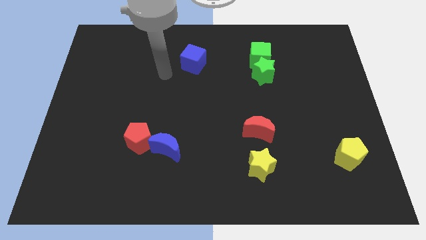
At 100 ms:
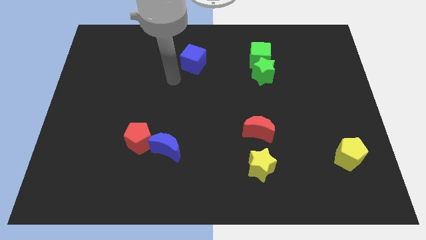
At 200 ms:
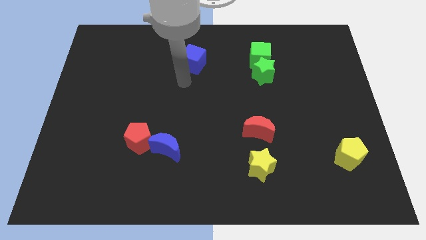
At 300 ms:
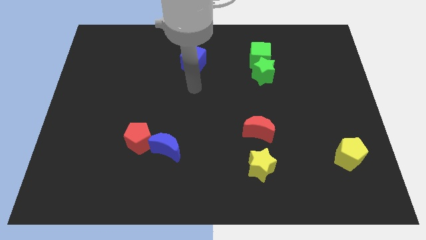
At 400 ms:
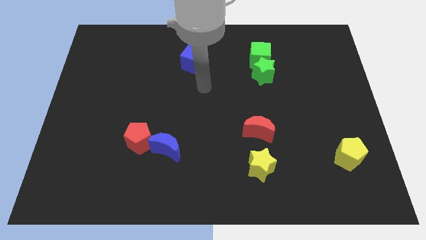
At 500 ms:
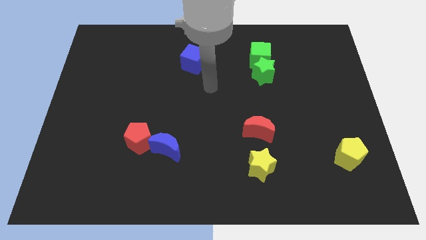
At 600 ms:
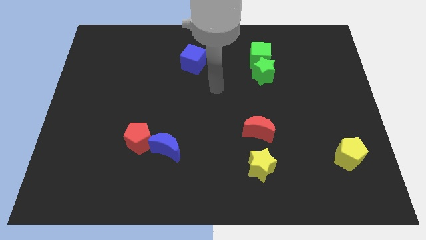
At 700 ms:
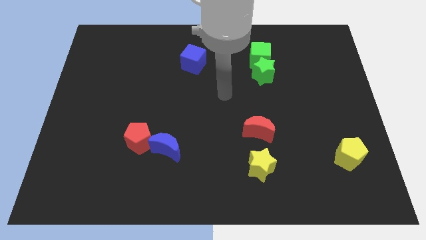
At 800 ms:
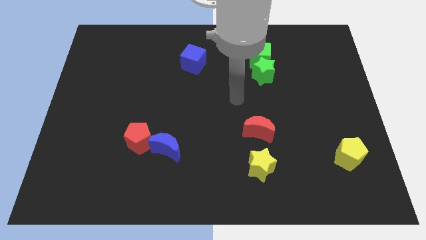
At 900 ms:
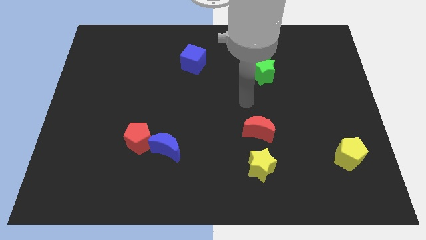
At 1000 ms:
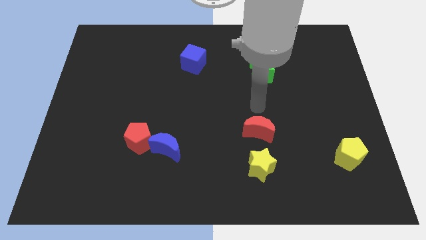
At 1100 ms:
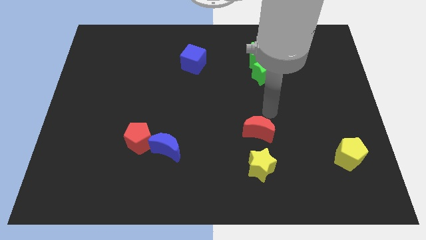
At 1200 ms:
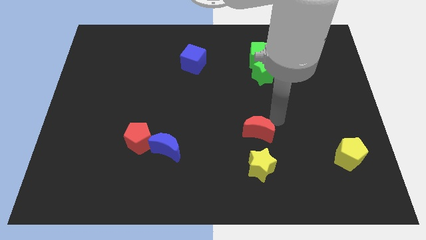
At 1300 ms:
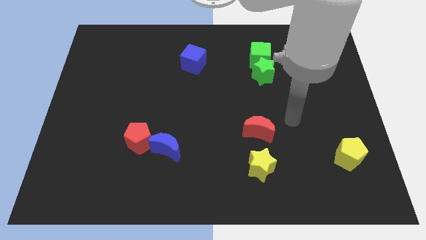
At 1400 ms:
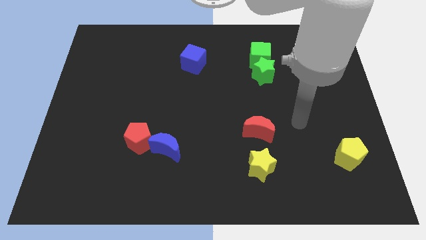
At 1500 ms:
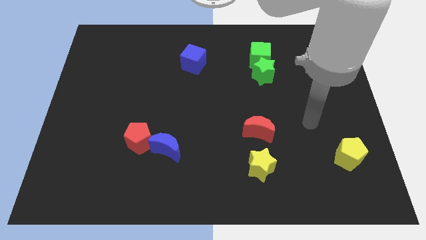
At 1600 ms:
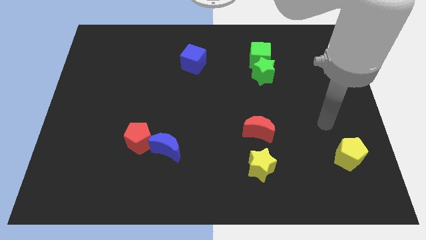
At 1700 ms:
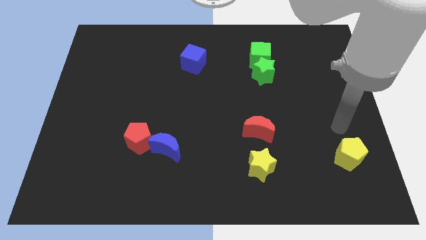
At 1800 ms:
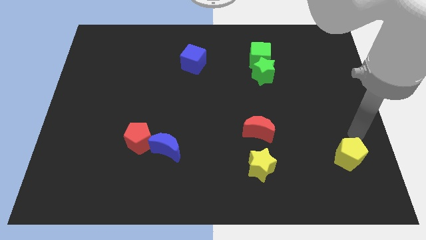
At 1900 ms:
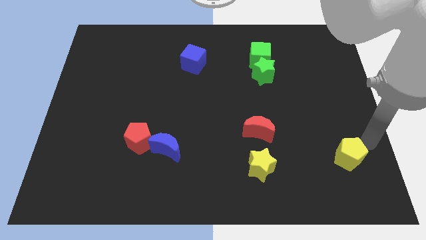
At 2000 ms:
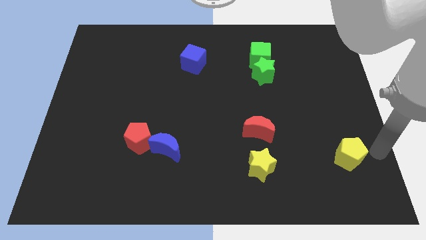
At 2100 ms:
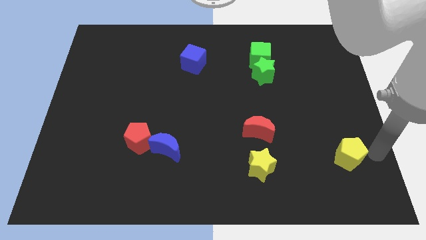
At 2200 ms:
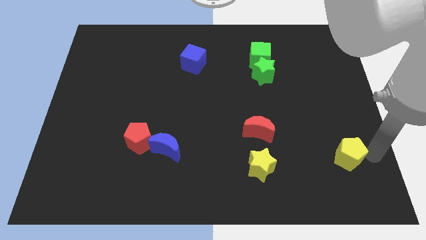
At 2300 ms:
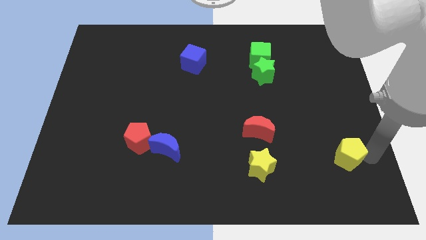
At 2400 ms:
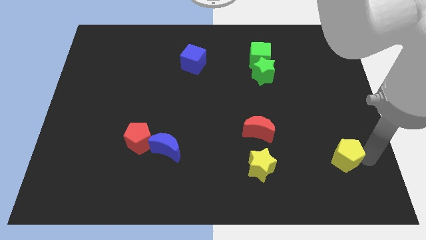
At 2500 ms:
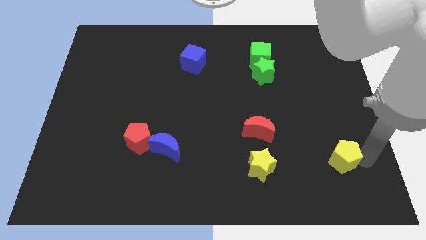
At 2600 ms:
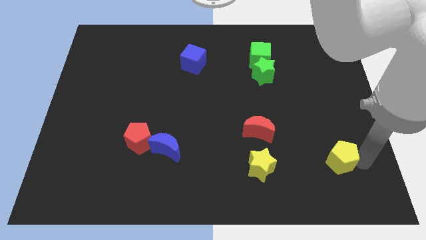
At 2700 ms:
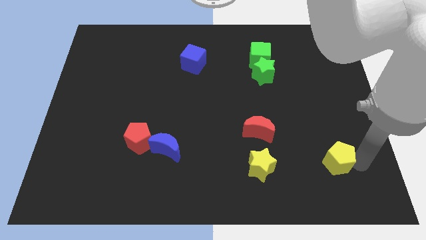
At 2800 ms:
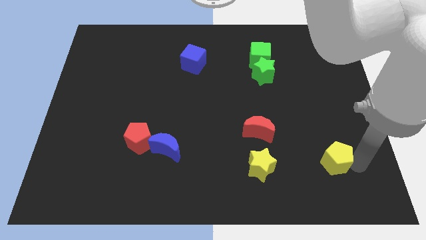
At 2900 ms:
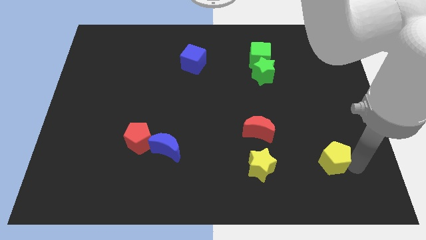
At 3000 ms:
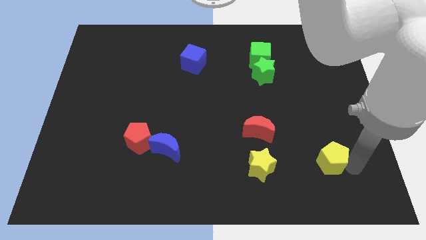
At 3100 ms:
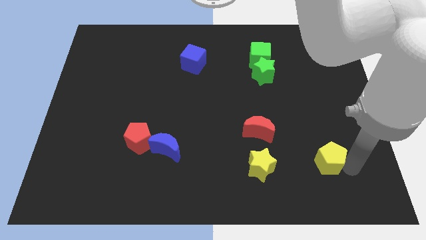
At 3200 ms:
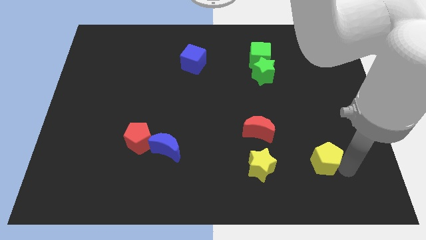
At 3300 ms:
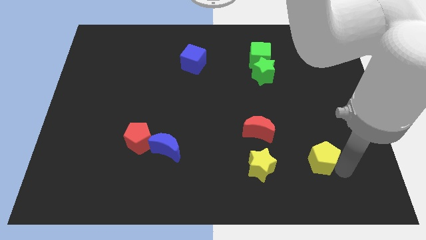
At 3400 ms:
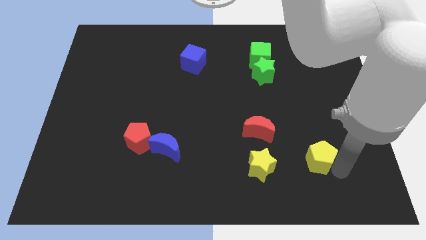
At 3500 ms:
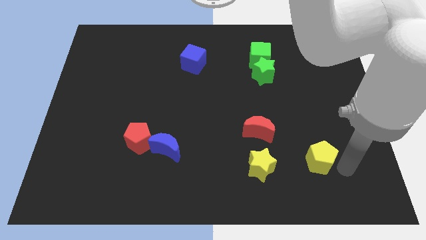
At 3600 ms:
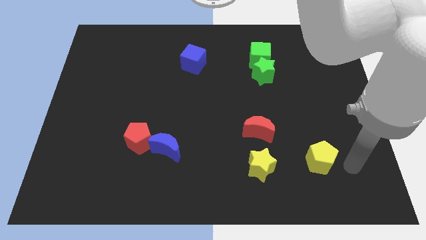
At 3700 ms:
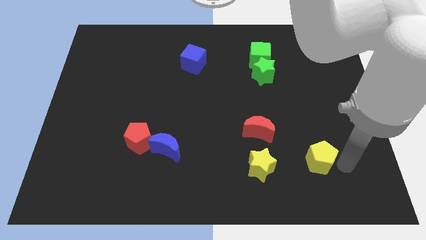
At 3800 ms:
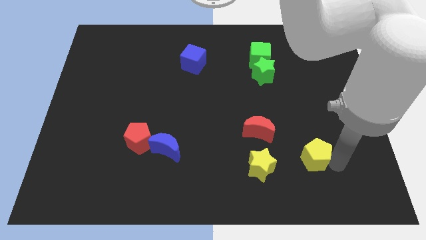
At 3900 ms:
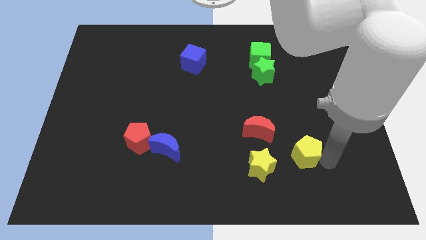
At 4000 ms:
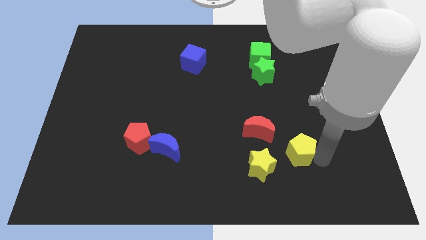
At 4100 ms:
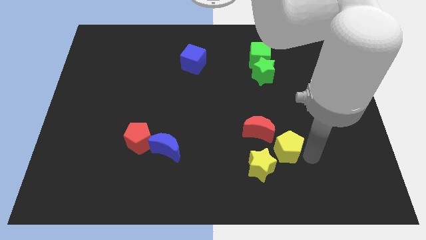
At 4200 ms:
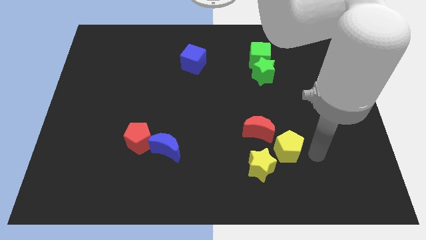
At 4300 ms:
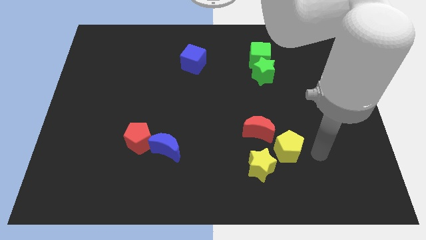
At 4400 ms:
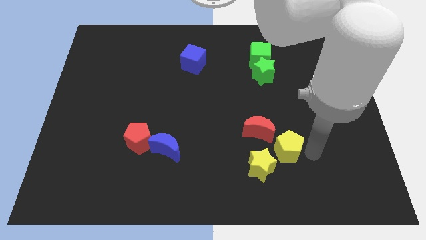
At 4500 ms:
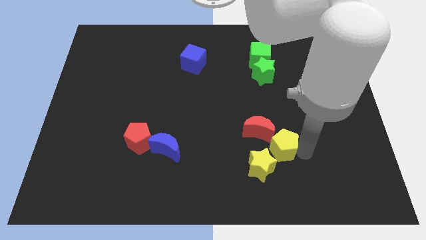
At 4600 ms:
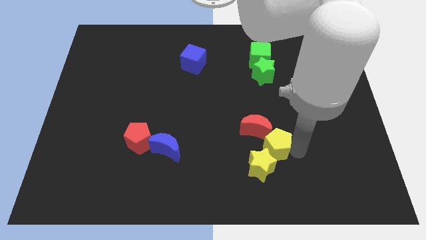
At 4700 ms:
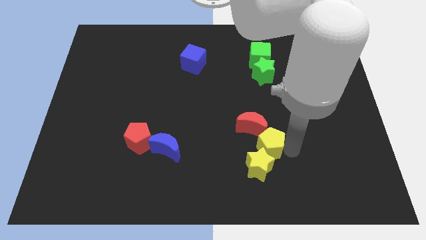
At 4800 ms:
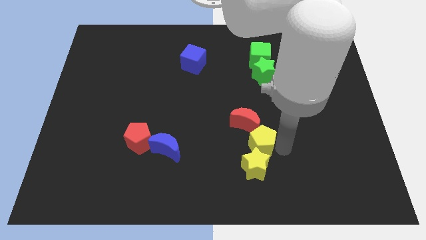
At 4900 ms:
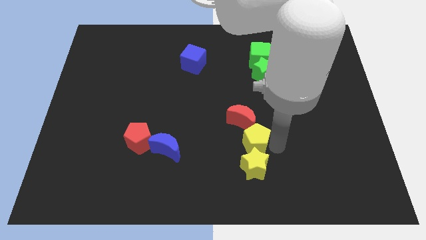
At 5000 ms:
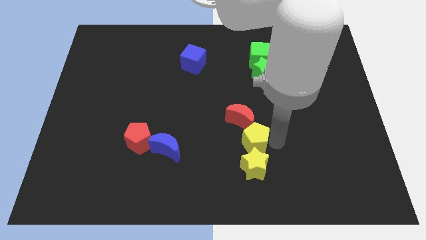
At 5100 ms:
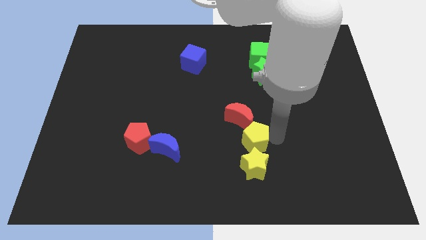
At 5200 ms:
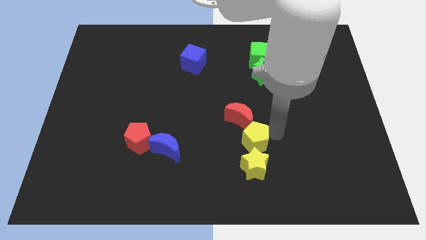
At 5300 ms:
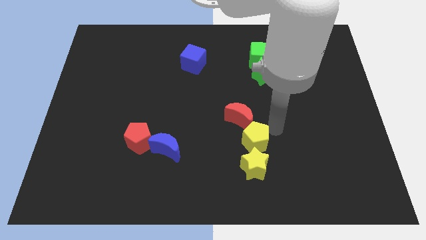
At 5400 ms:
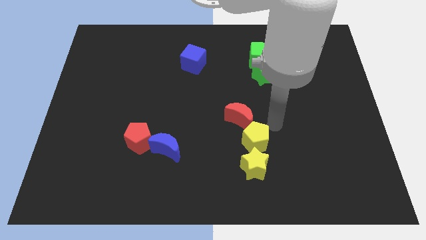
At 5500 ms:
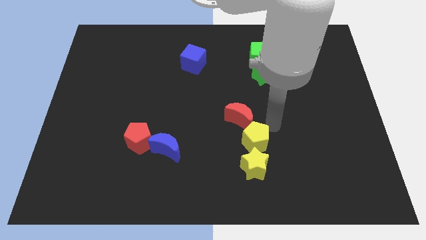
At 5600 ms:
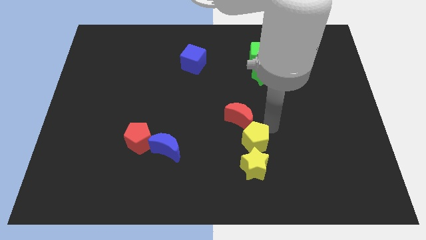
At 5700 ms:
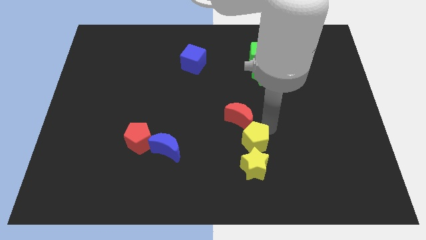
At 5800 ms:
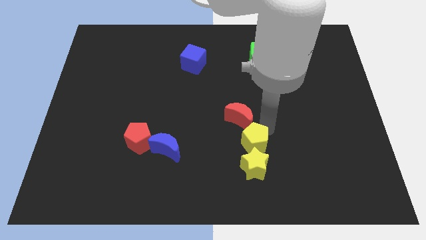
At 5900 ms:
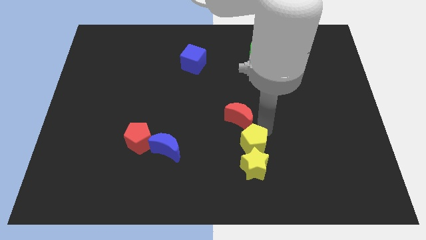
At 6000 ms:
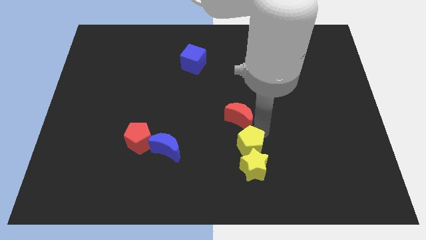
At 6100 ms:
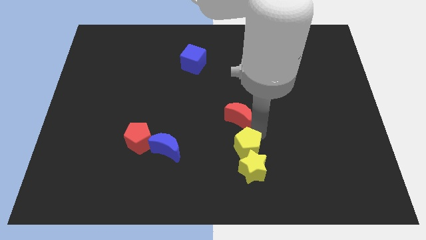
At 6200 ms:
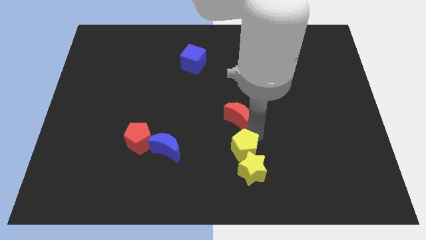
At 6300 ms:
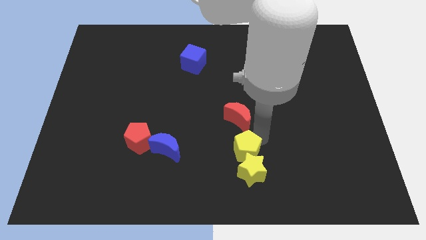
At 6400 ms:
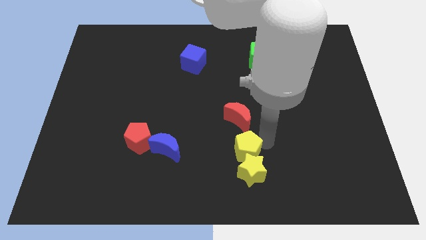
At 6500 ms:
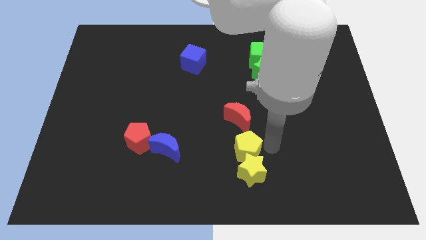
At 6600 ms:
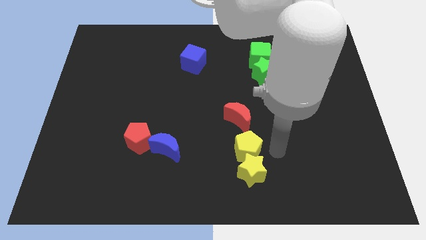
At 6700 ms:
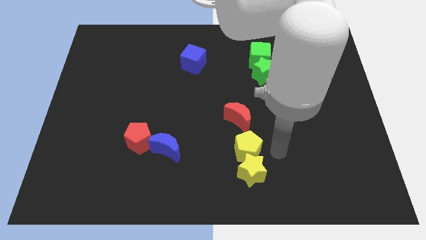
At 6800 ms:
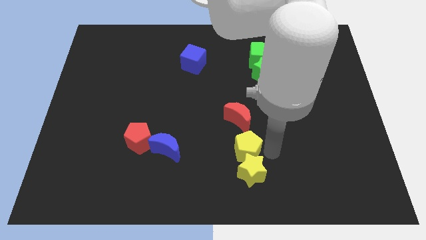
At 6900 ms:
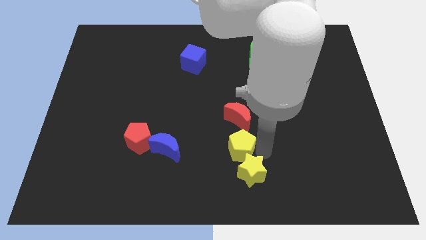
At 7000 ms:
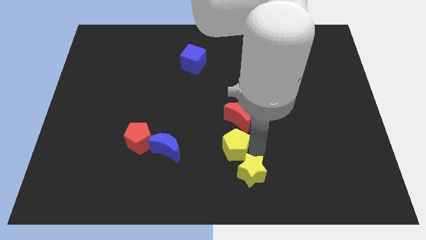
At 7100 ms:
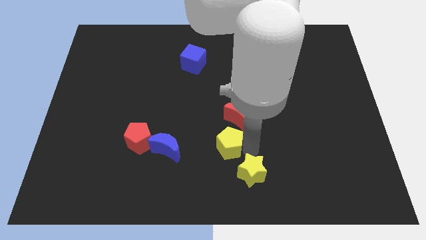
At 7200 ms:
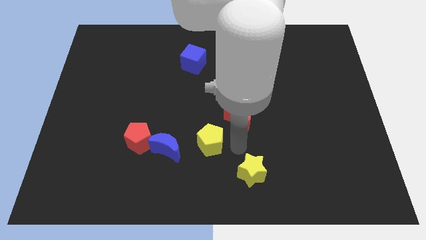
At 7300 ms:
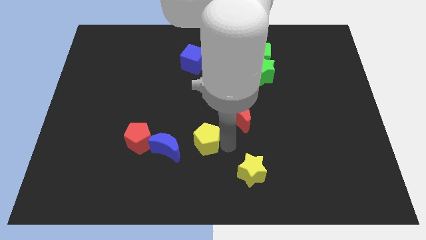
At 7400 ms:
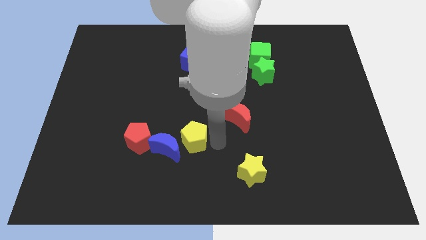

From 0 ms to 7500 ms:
put the yellow pentagon towards the blue moon

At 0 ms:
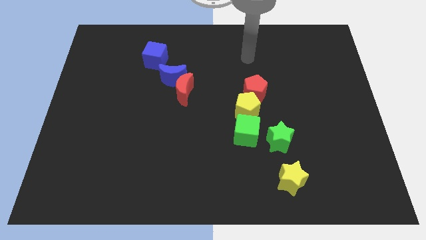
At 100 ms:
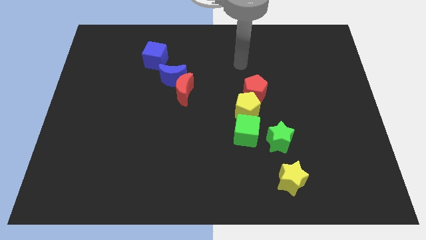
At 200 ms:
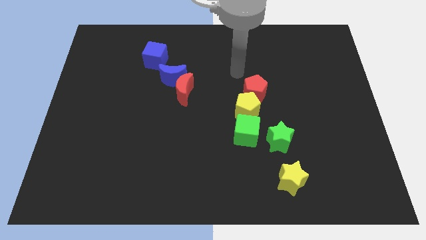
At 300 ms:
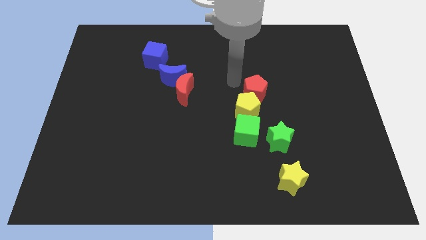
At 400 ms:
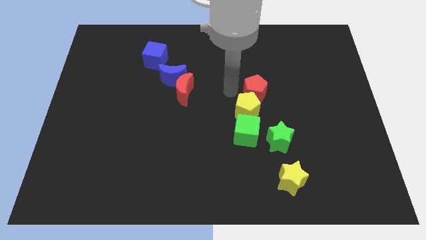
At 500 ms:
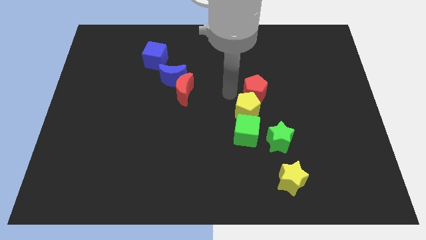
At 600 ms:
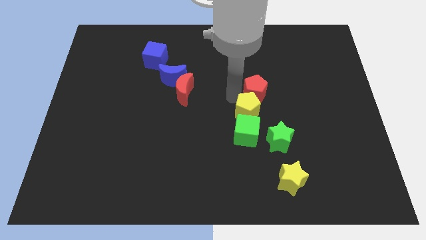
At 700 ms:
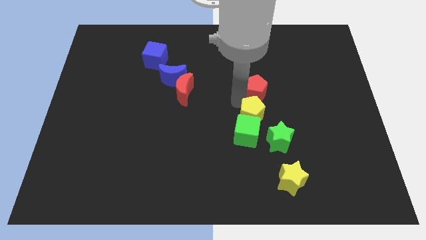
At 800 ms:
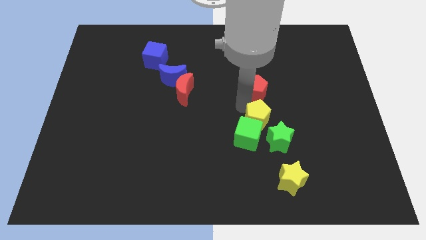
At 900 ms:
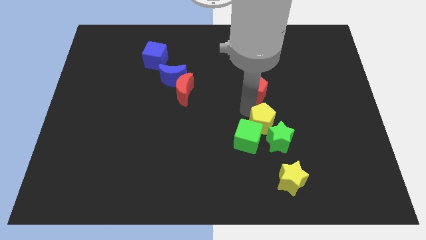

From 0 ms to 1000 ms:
move the yellow pentagon close to the green star
